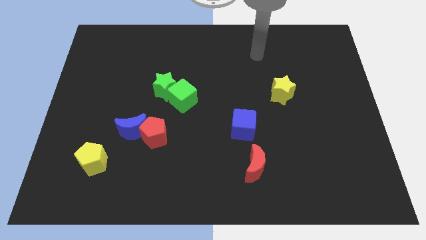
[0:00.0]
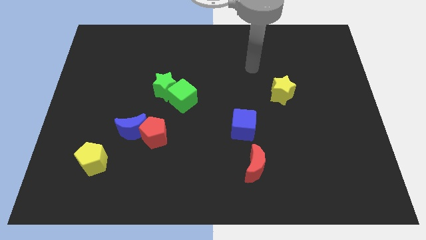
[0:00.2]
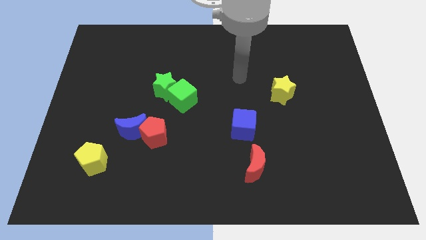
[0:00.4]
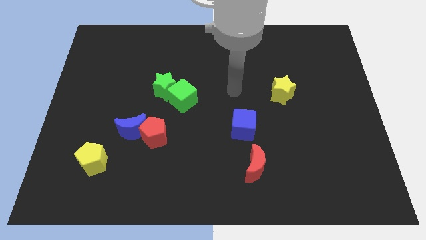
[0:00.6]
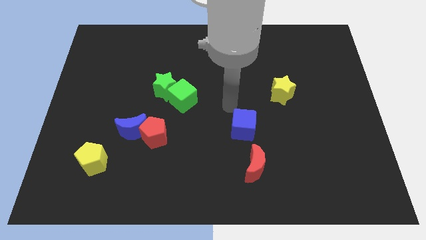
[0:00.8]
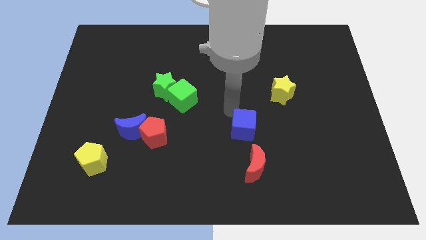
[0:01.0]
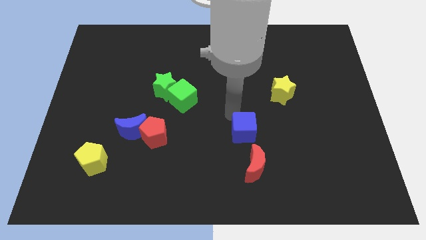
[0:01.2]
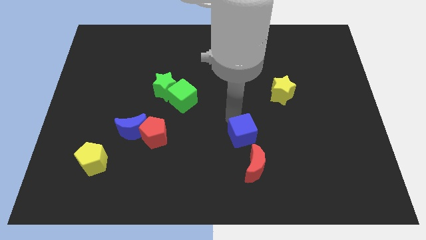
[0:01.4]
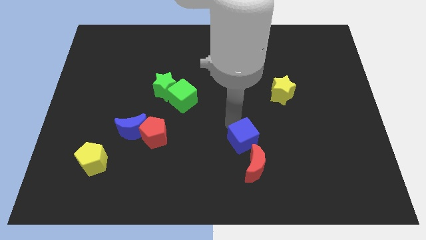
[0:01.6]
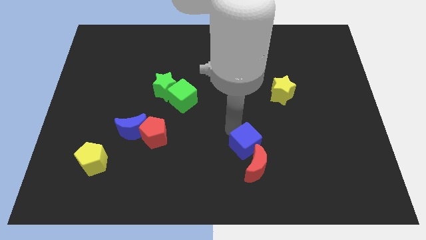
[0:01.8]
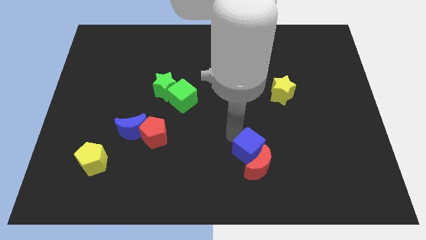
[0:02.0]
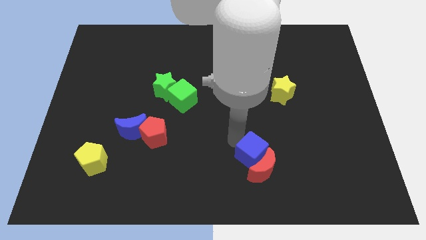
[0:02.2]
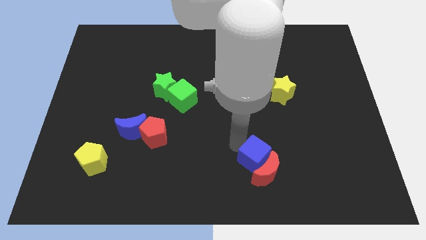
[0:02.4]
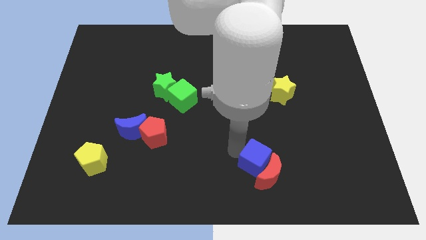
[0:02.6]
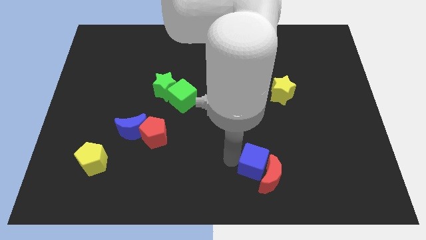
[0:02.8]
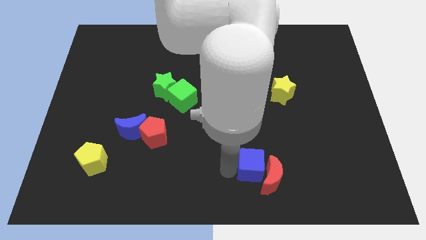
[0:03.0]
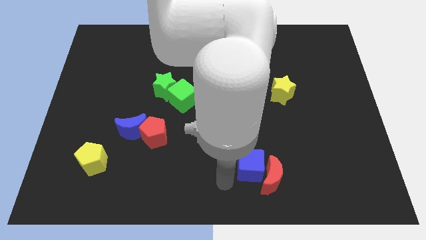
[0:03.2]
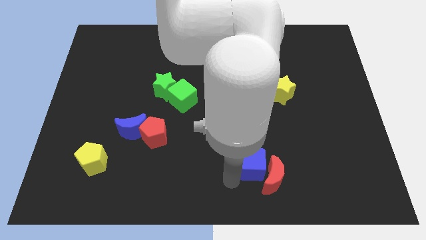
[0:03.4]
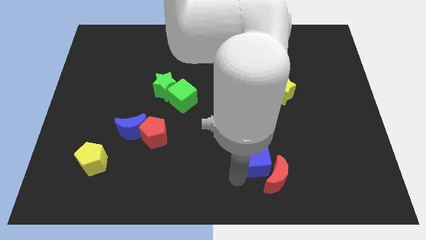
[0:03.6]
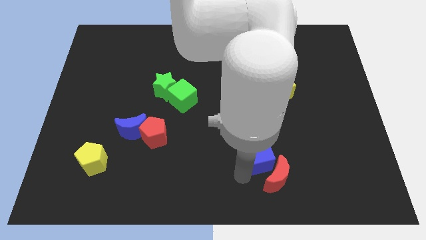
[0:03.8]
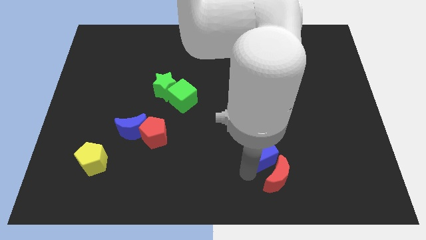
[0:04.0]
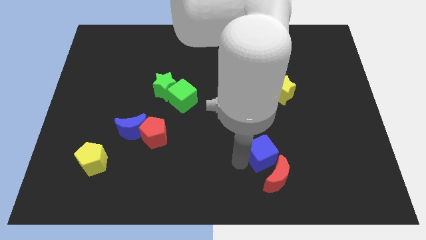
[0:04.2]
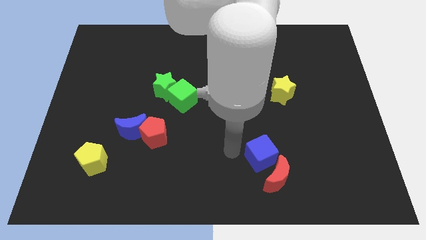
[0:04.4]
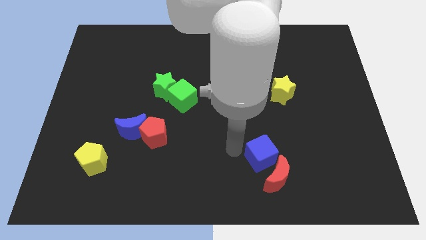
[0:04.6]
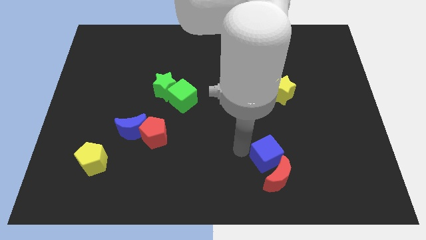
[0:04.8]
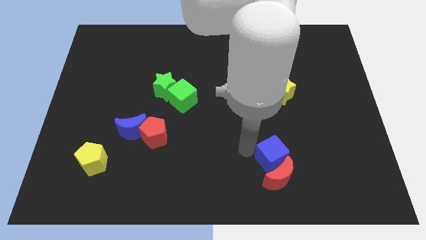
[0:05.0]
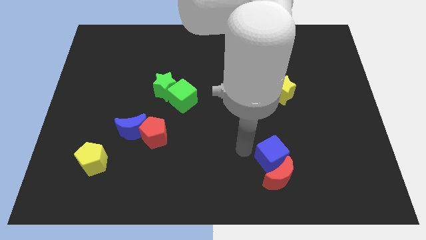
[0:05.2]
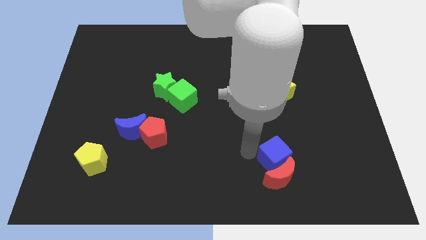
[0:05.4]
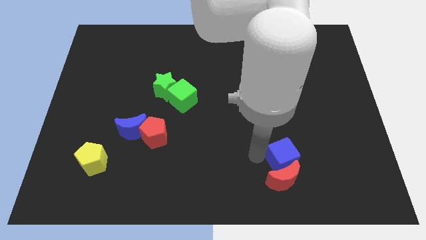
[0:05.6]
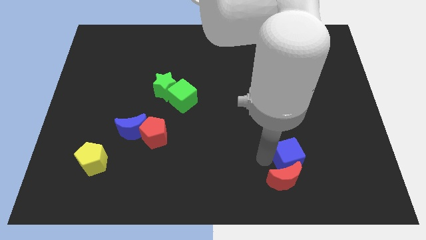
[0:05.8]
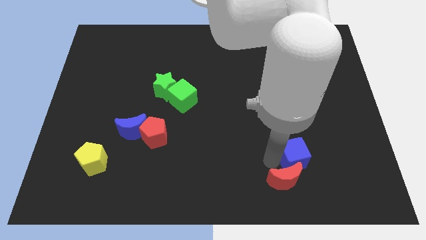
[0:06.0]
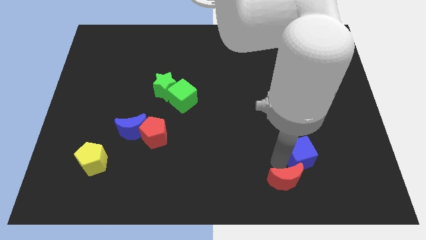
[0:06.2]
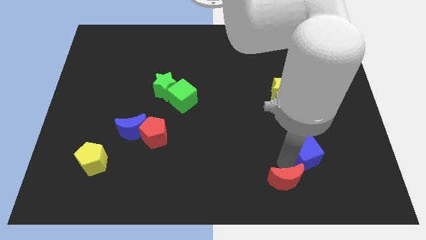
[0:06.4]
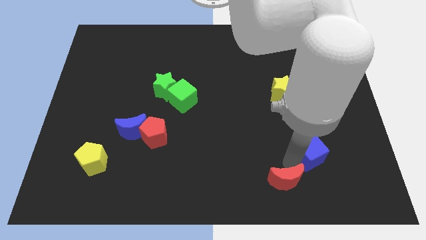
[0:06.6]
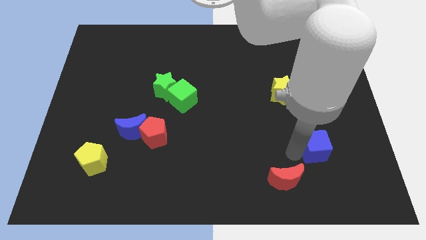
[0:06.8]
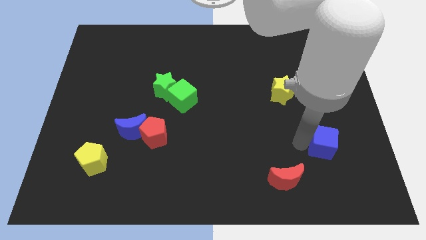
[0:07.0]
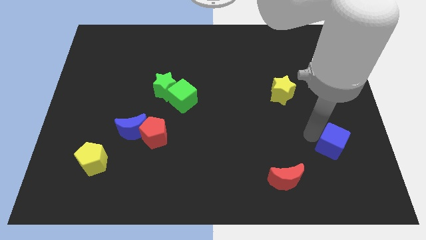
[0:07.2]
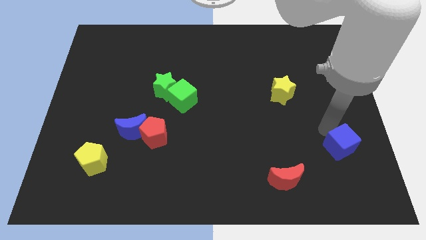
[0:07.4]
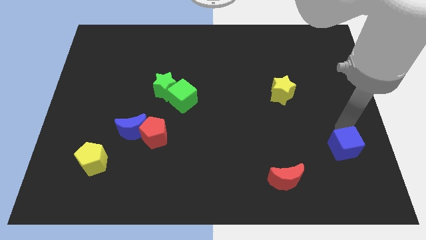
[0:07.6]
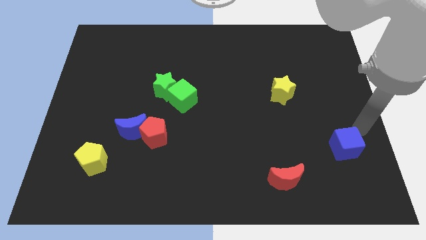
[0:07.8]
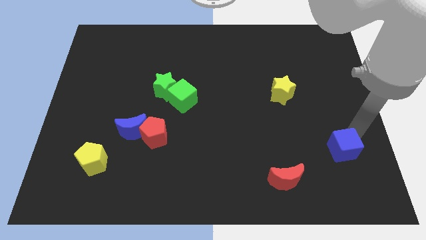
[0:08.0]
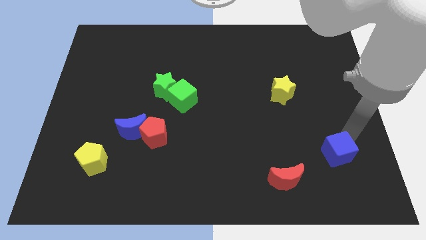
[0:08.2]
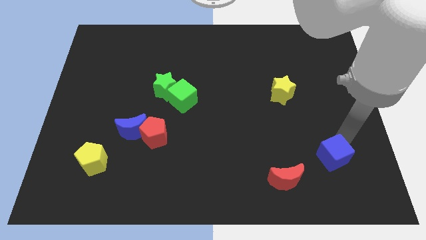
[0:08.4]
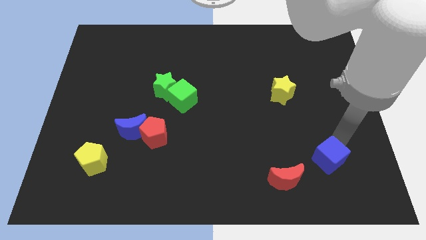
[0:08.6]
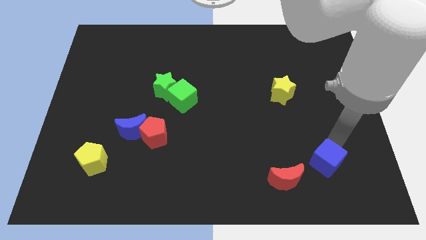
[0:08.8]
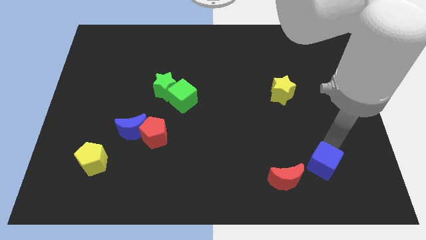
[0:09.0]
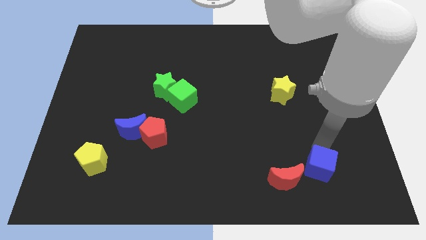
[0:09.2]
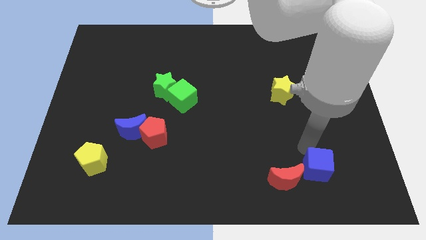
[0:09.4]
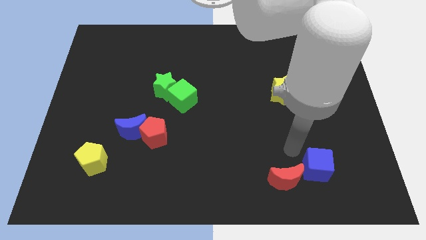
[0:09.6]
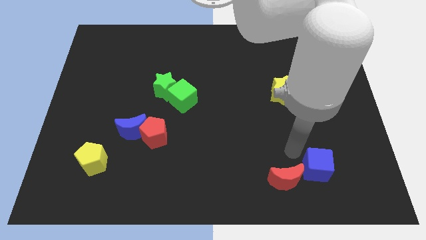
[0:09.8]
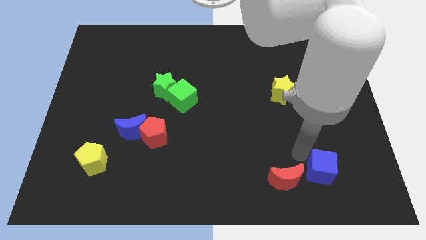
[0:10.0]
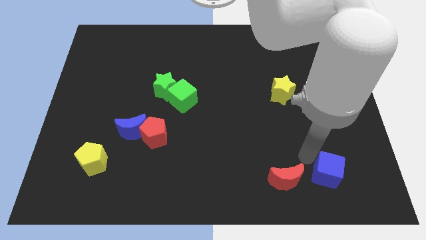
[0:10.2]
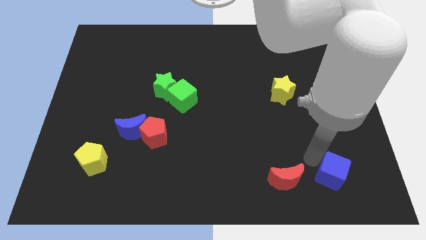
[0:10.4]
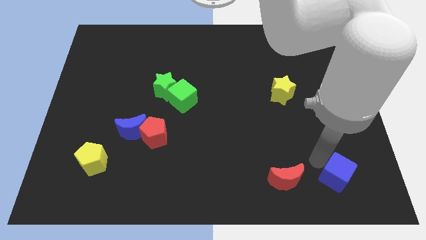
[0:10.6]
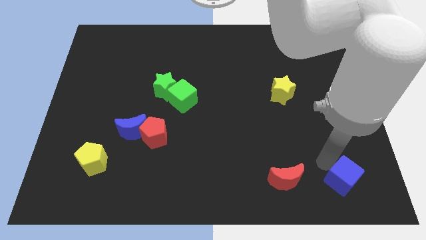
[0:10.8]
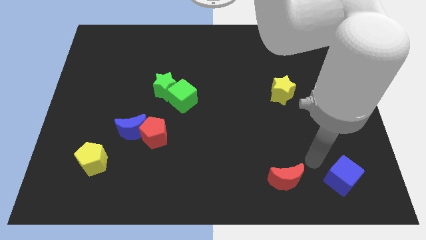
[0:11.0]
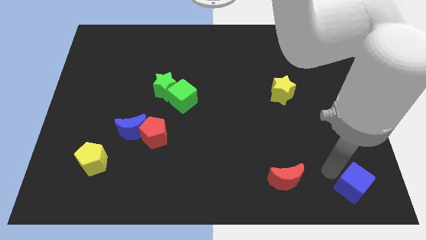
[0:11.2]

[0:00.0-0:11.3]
move the blue cube to the bottom right of the board

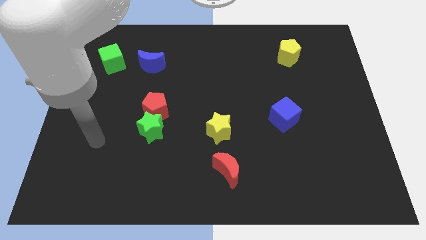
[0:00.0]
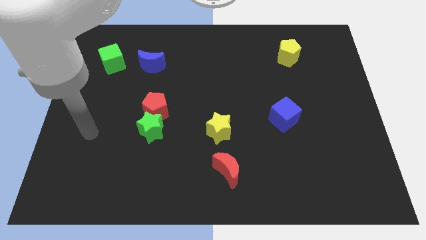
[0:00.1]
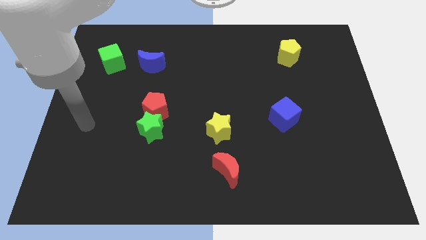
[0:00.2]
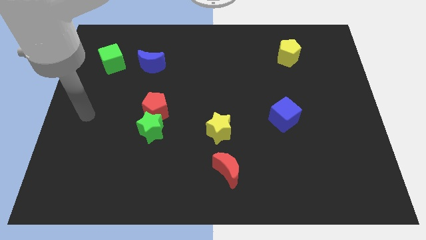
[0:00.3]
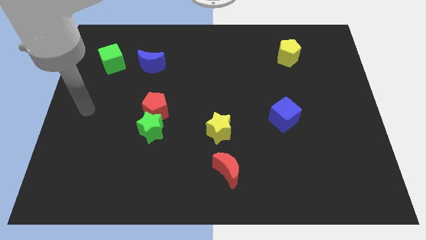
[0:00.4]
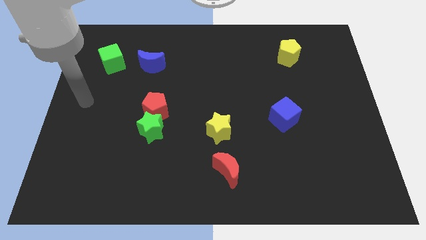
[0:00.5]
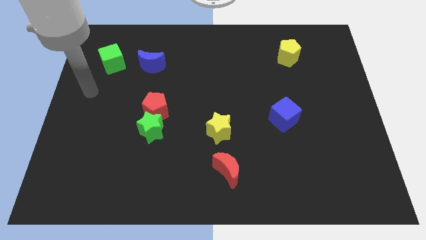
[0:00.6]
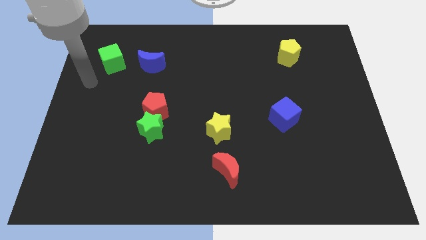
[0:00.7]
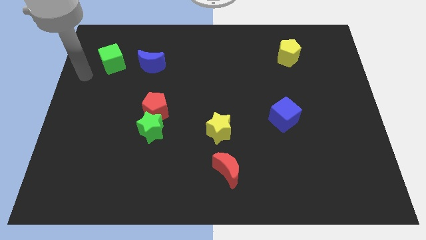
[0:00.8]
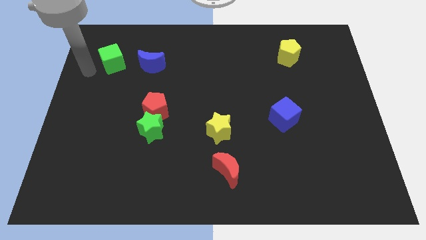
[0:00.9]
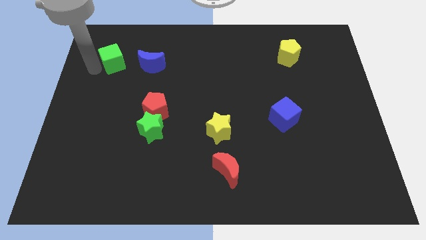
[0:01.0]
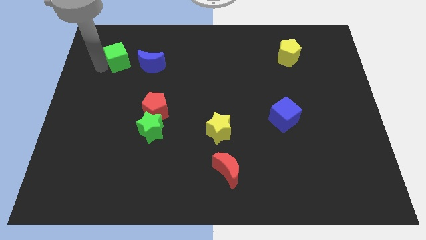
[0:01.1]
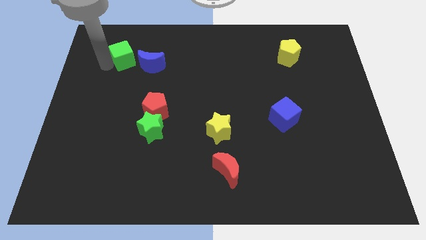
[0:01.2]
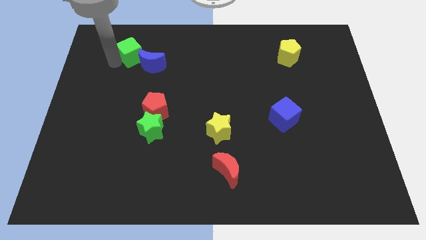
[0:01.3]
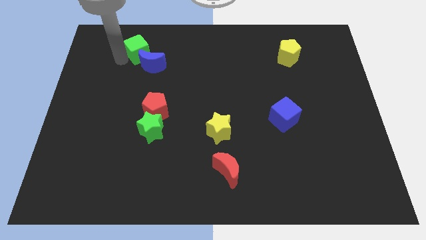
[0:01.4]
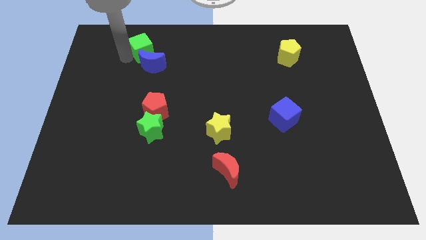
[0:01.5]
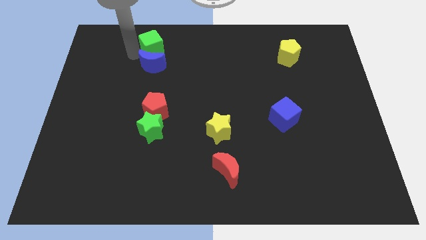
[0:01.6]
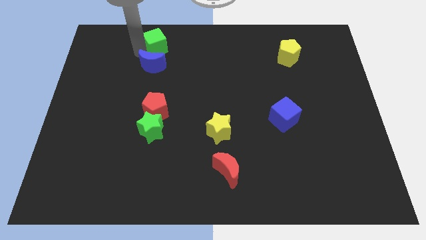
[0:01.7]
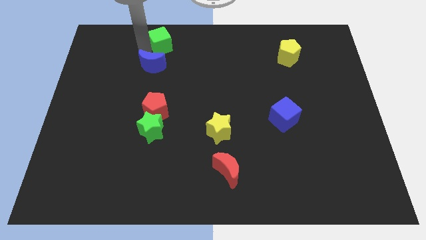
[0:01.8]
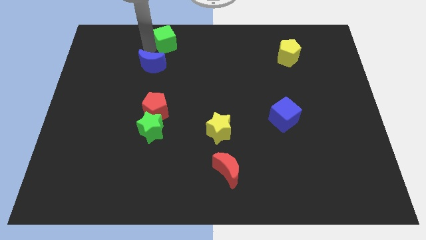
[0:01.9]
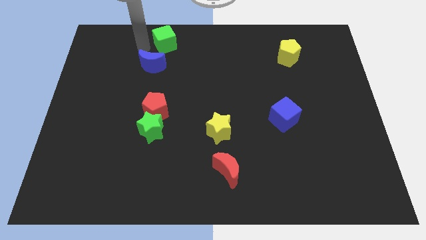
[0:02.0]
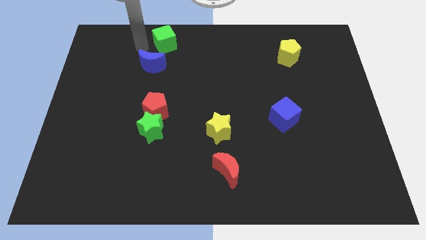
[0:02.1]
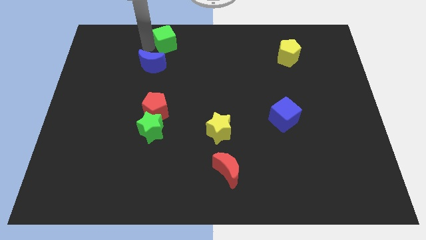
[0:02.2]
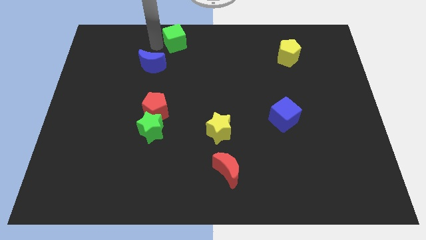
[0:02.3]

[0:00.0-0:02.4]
move the green cube to the towards your base
